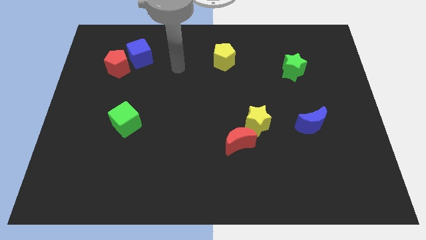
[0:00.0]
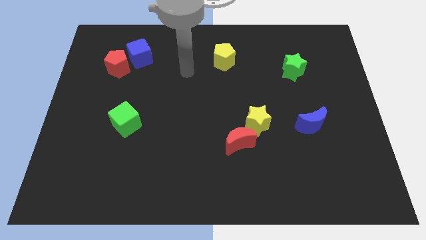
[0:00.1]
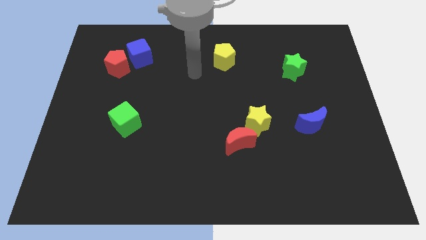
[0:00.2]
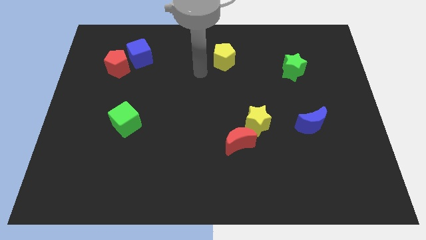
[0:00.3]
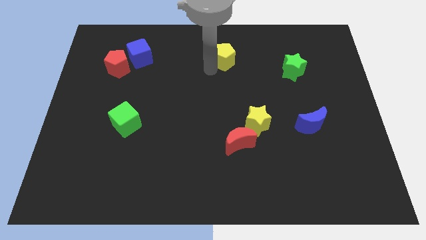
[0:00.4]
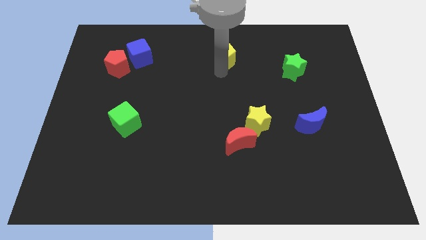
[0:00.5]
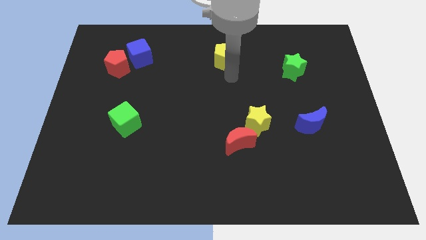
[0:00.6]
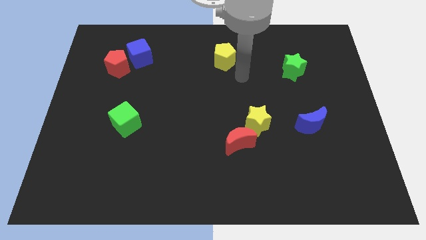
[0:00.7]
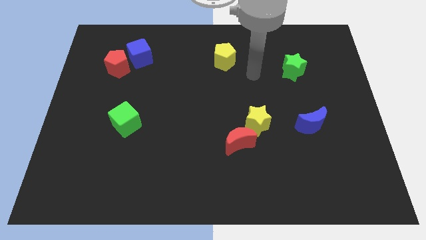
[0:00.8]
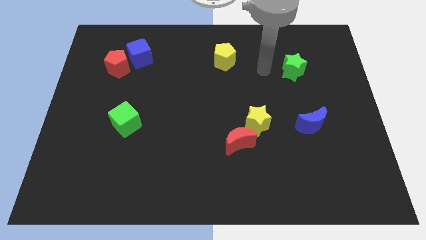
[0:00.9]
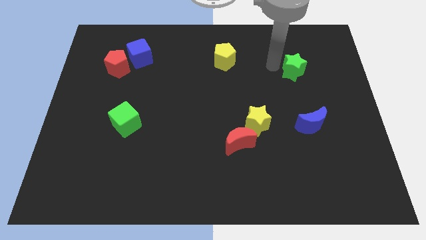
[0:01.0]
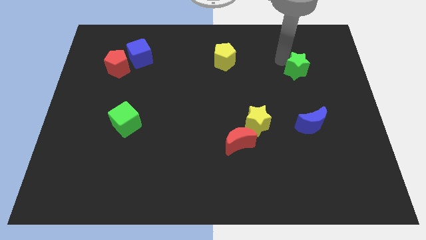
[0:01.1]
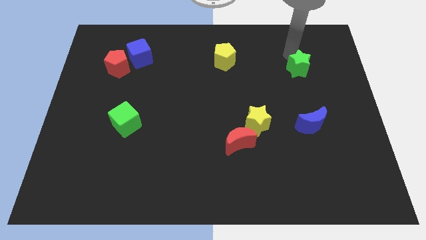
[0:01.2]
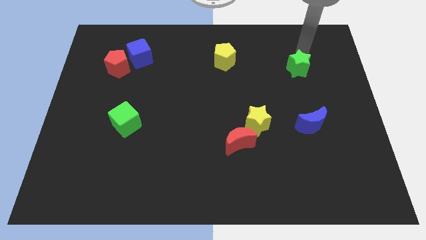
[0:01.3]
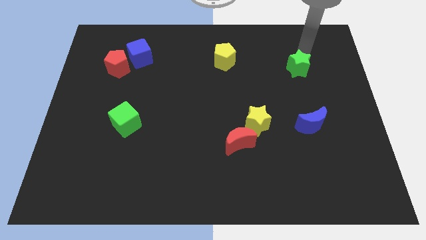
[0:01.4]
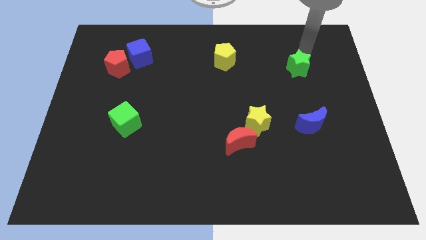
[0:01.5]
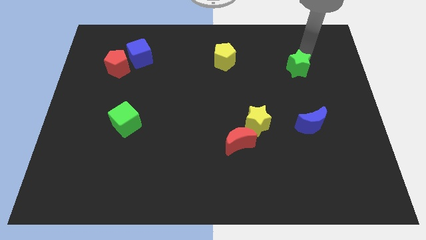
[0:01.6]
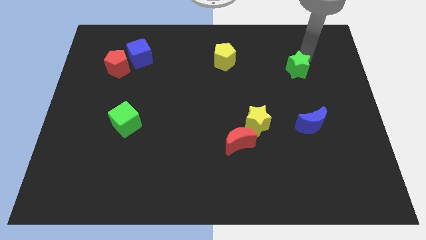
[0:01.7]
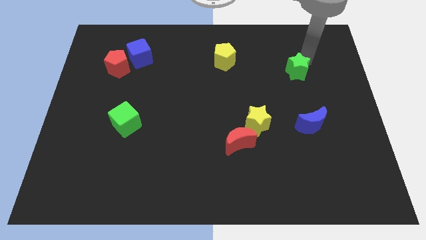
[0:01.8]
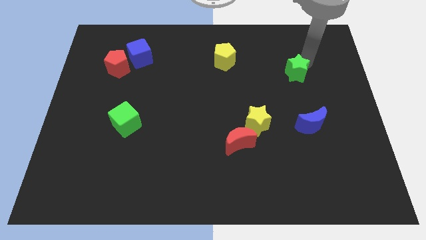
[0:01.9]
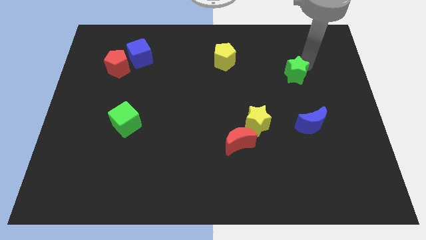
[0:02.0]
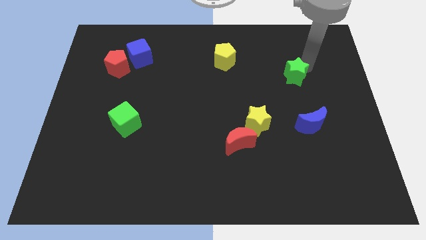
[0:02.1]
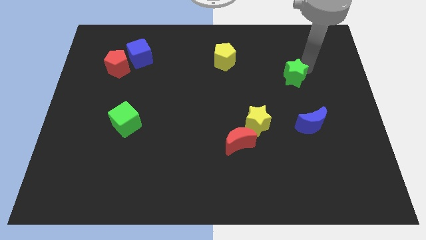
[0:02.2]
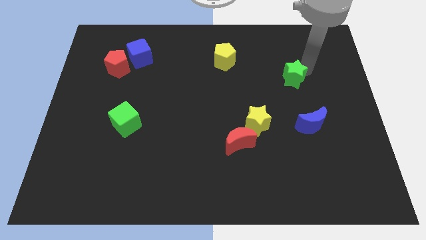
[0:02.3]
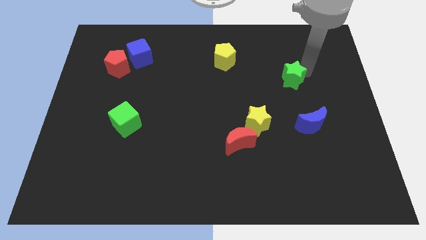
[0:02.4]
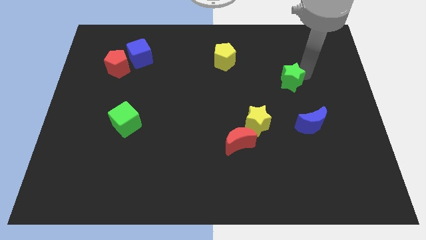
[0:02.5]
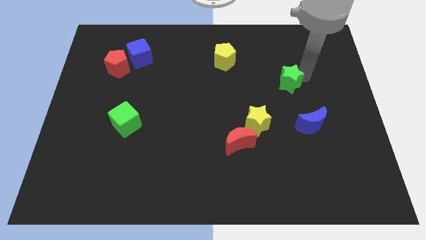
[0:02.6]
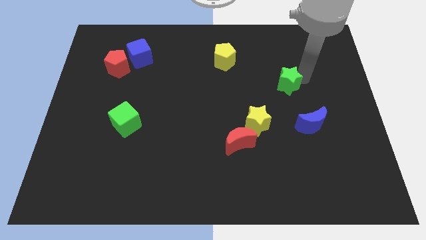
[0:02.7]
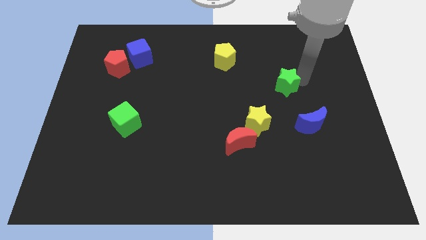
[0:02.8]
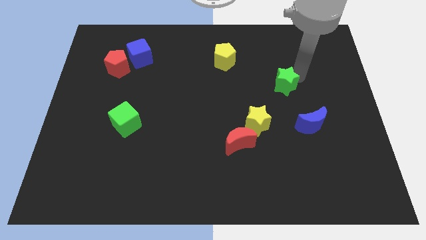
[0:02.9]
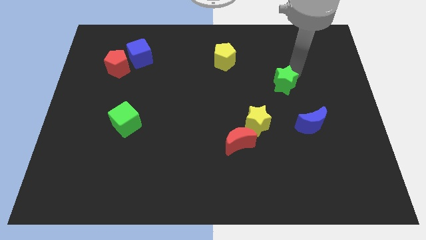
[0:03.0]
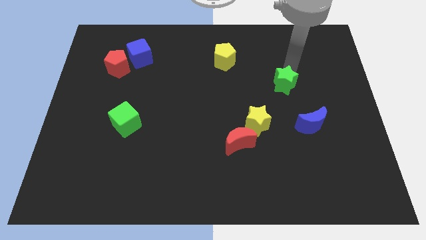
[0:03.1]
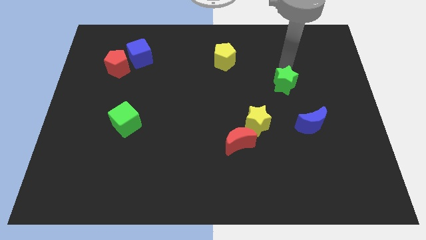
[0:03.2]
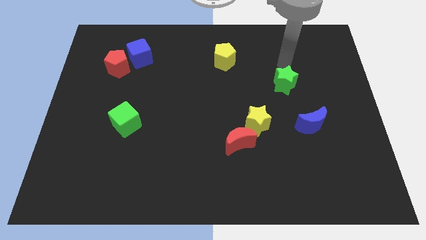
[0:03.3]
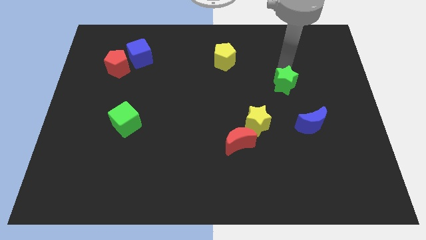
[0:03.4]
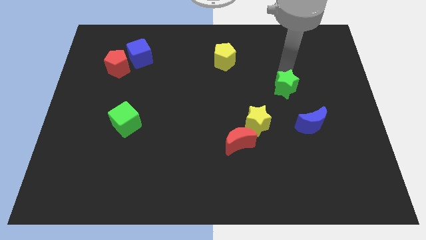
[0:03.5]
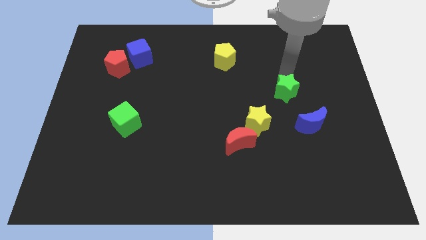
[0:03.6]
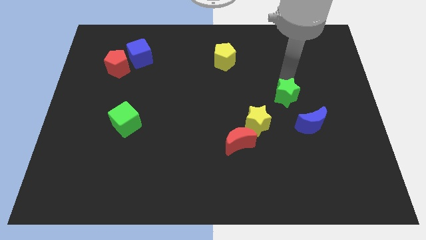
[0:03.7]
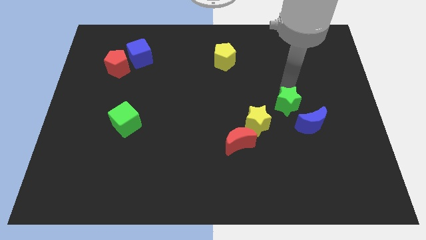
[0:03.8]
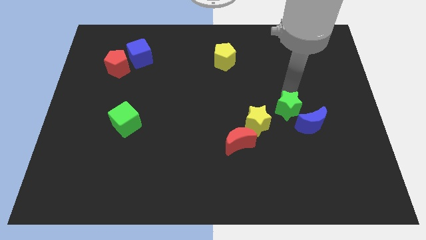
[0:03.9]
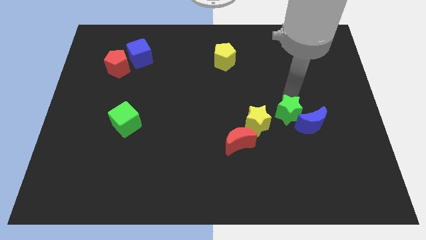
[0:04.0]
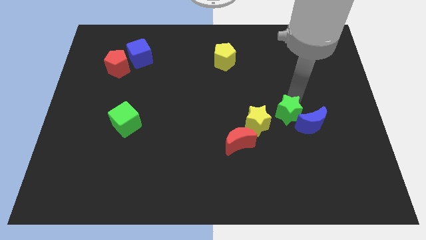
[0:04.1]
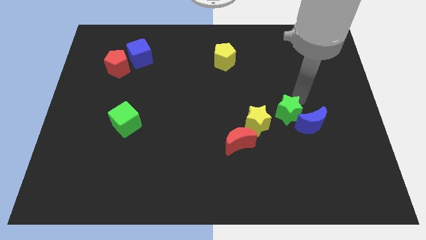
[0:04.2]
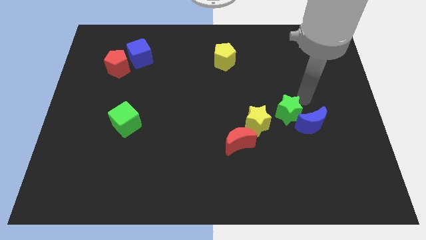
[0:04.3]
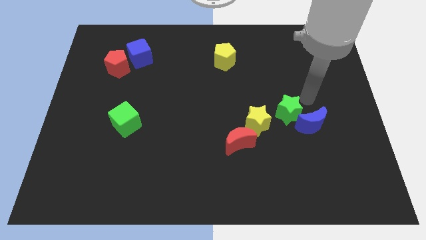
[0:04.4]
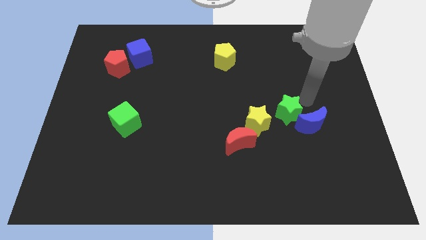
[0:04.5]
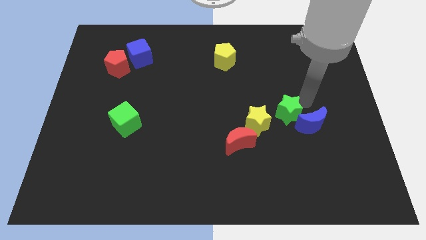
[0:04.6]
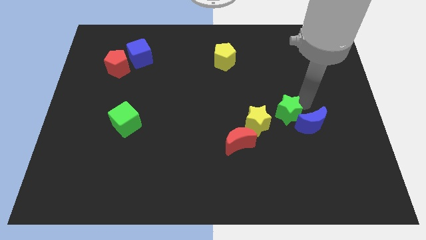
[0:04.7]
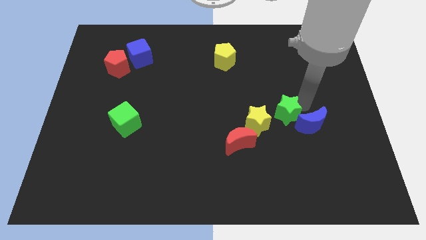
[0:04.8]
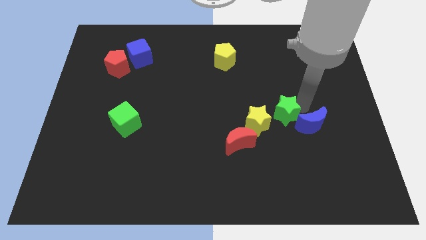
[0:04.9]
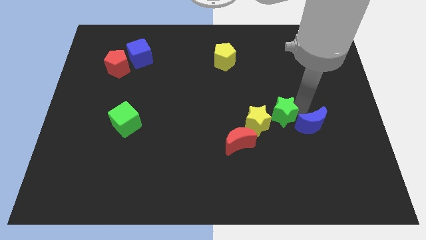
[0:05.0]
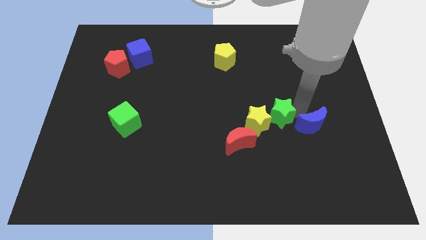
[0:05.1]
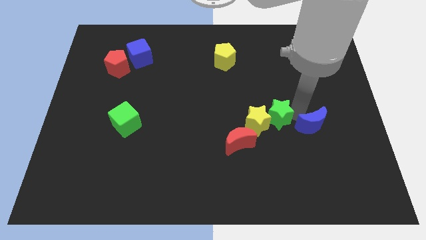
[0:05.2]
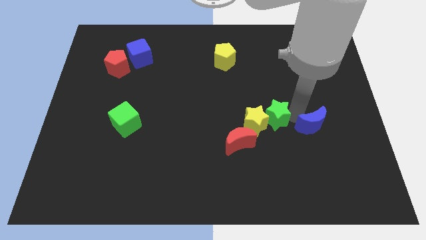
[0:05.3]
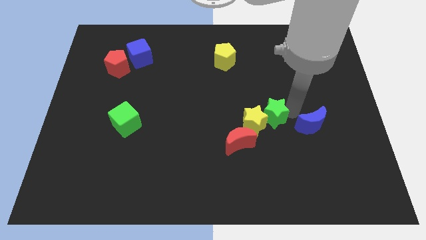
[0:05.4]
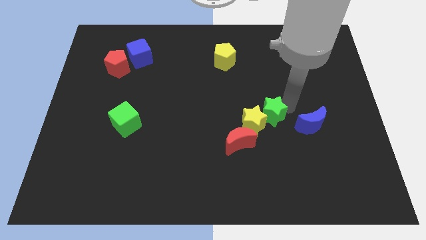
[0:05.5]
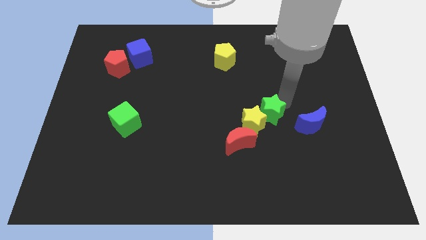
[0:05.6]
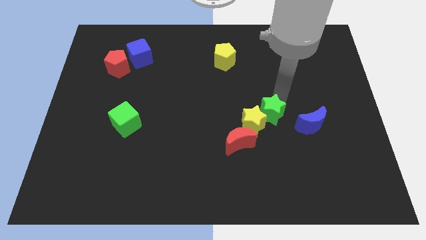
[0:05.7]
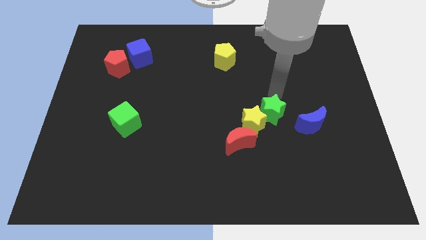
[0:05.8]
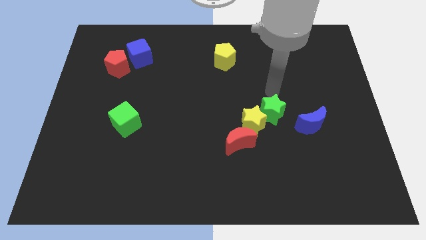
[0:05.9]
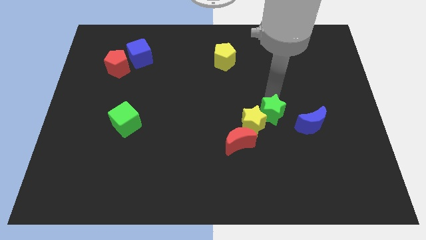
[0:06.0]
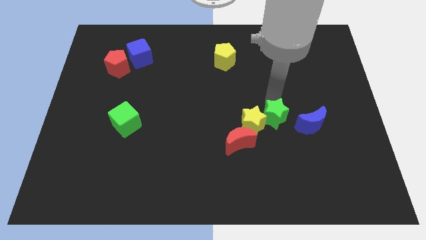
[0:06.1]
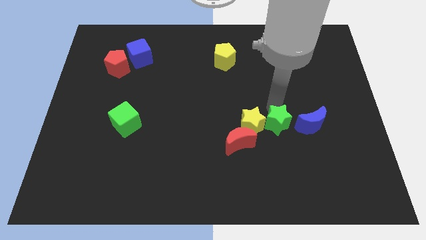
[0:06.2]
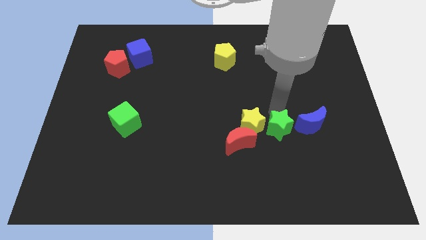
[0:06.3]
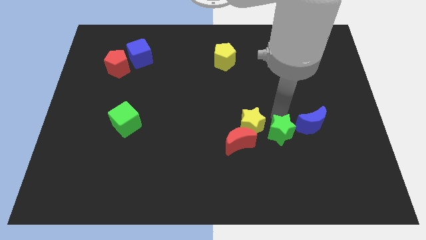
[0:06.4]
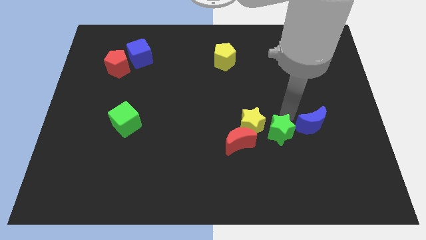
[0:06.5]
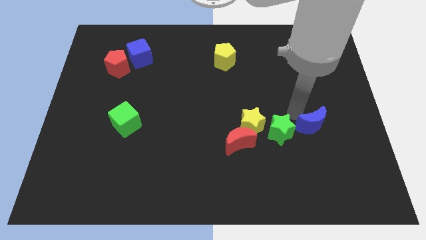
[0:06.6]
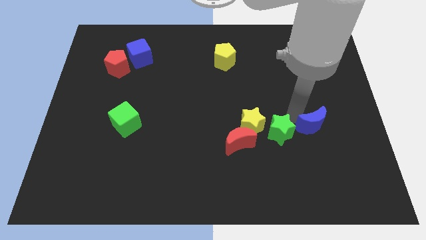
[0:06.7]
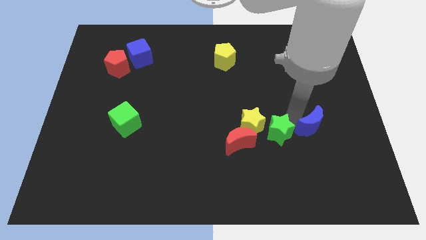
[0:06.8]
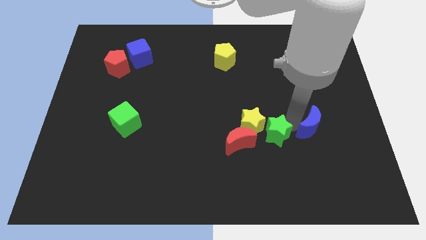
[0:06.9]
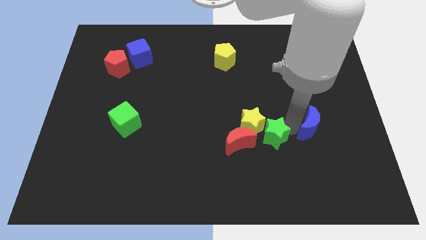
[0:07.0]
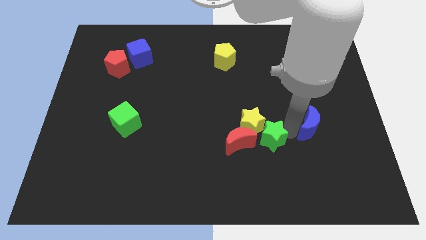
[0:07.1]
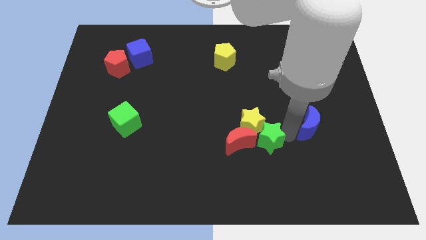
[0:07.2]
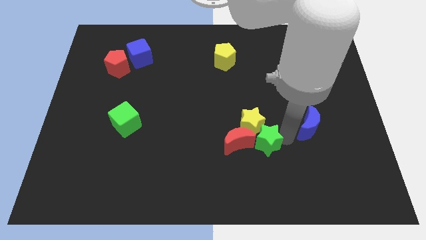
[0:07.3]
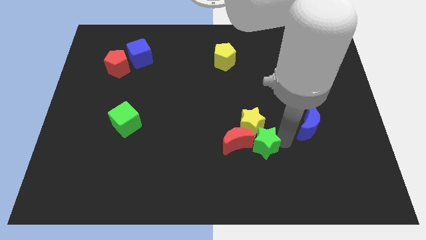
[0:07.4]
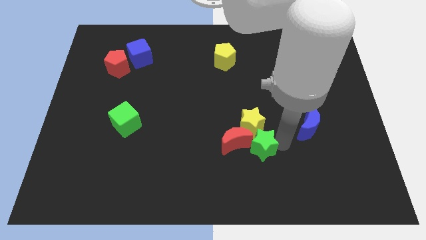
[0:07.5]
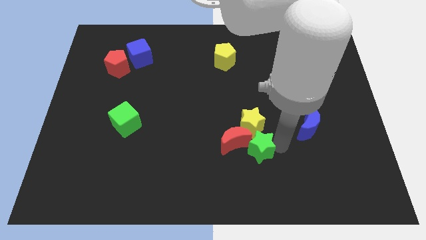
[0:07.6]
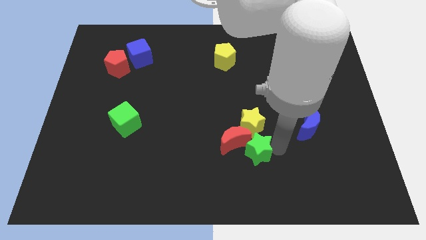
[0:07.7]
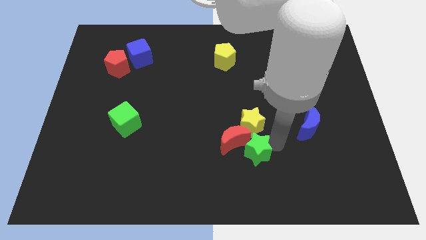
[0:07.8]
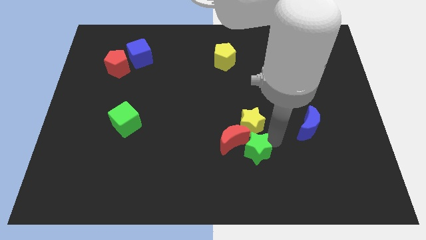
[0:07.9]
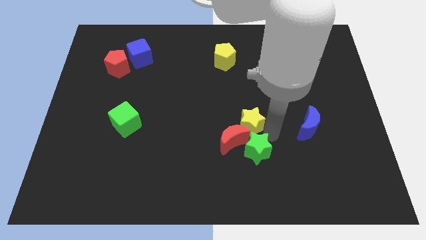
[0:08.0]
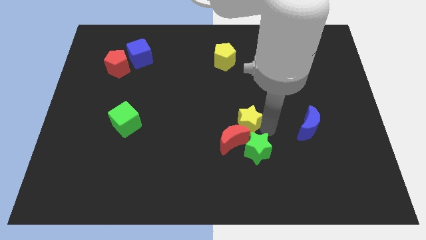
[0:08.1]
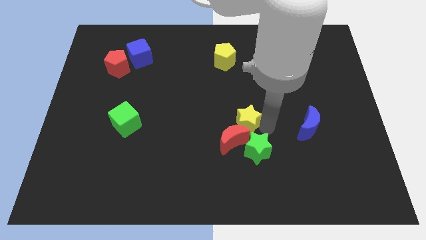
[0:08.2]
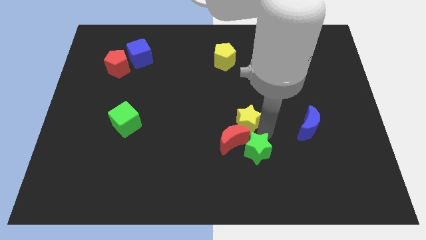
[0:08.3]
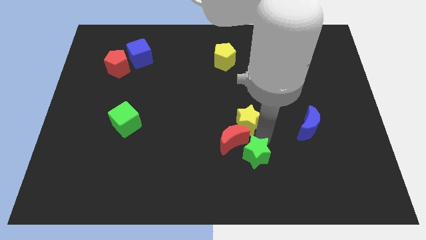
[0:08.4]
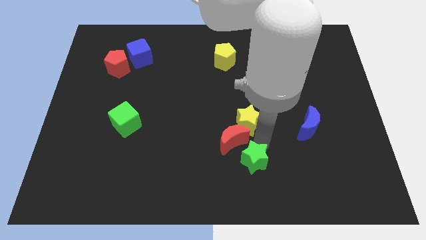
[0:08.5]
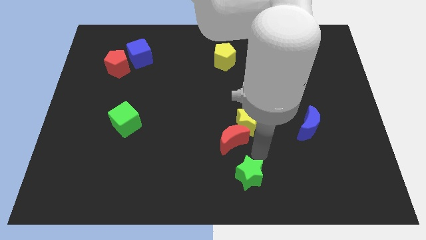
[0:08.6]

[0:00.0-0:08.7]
slide the green star to the bottom side
